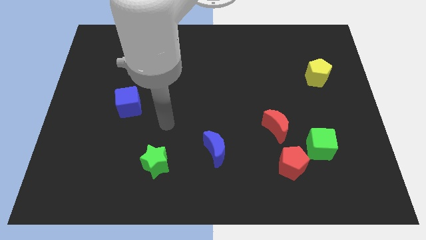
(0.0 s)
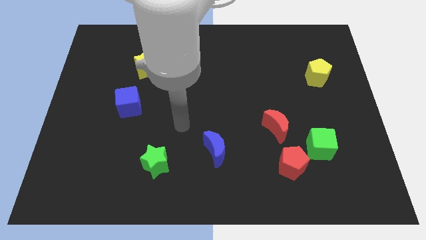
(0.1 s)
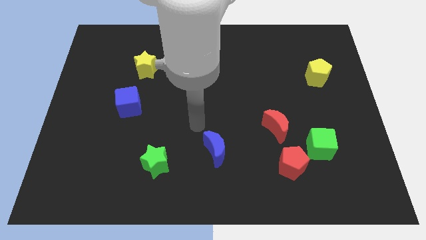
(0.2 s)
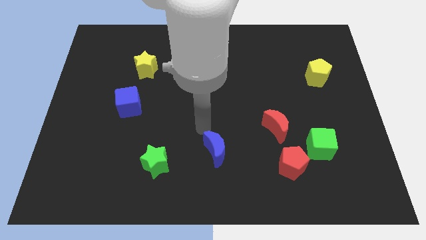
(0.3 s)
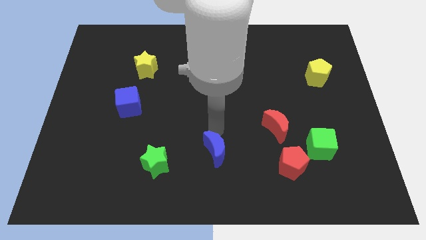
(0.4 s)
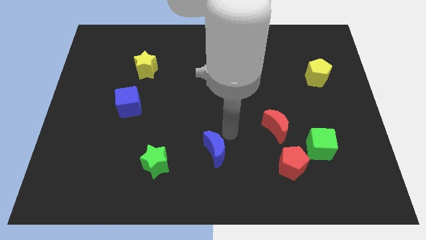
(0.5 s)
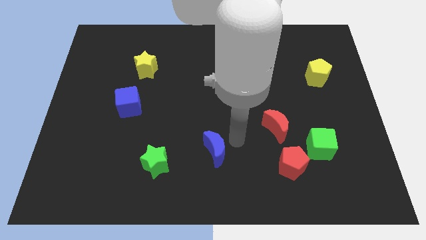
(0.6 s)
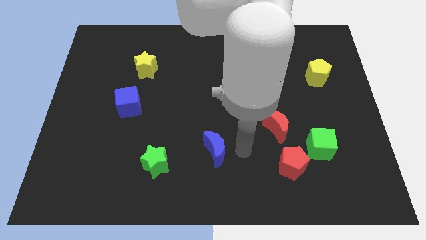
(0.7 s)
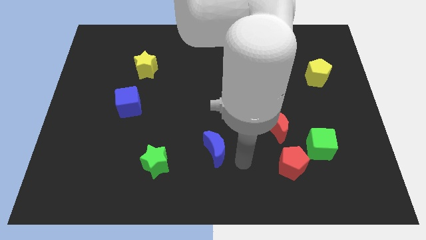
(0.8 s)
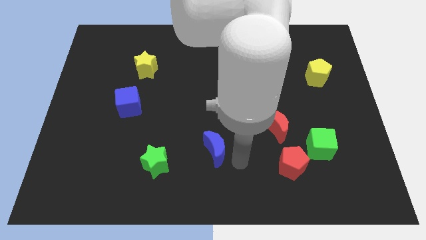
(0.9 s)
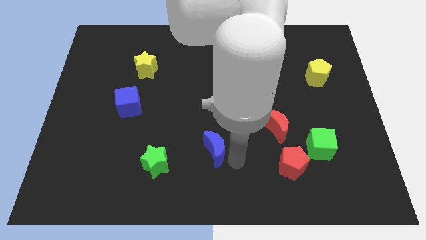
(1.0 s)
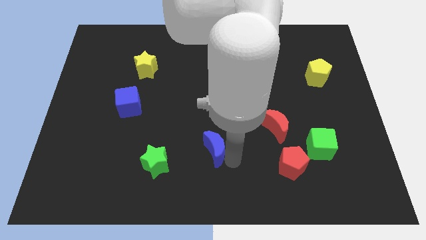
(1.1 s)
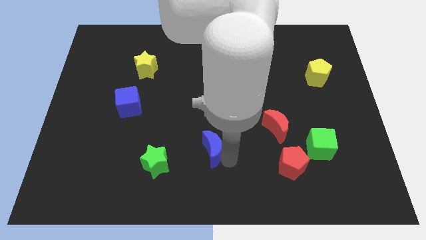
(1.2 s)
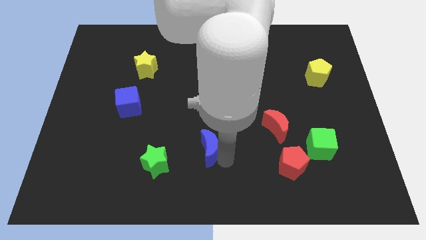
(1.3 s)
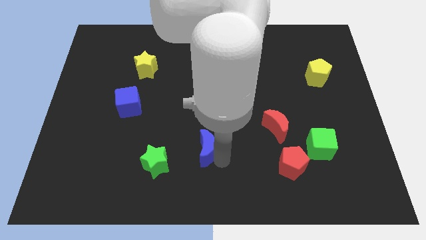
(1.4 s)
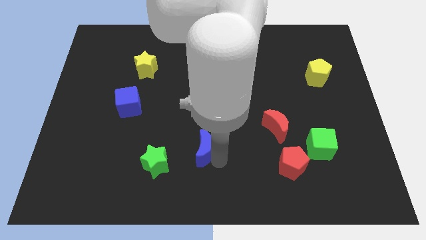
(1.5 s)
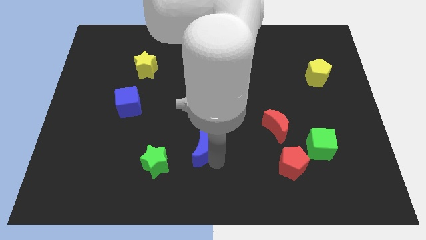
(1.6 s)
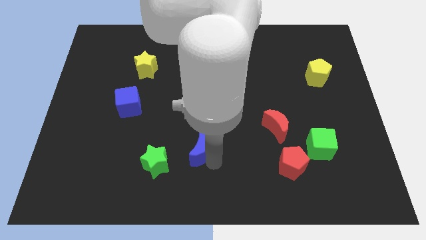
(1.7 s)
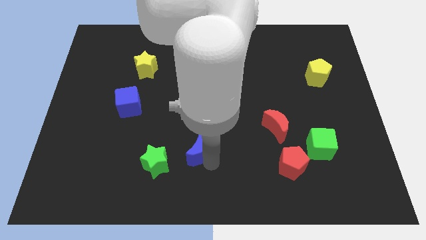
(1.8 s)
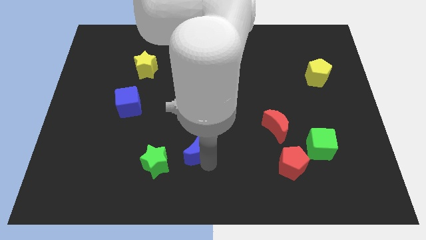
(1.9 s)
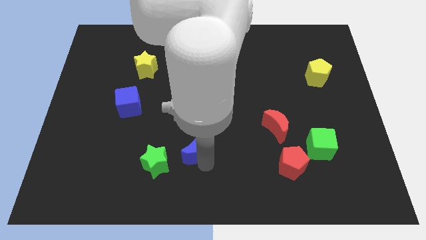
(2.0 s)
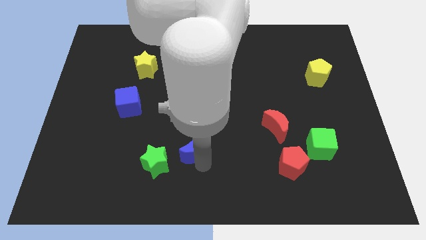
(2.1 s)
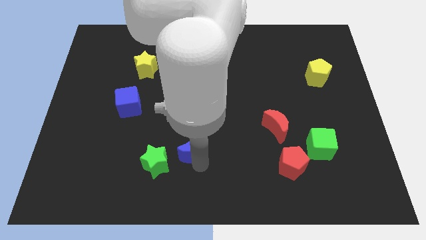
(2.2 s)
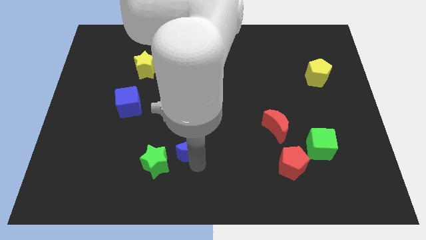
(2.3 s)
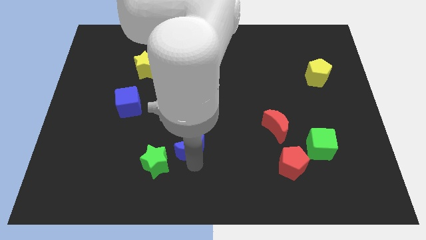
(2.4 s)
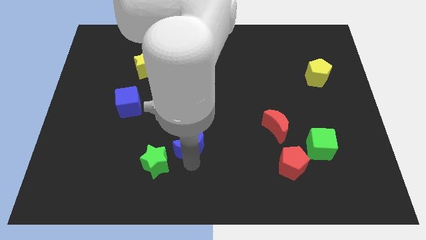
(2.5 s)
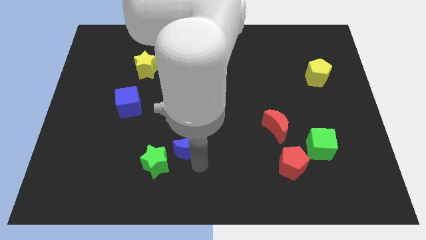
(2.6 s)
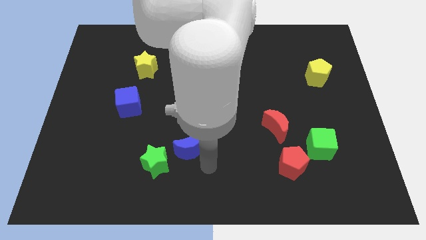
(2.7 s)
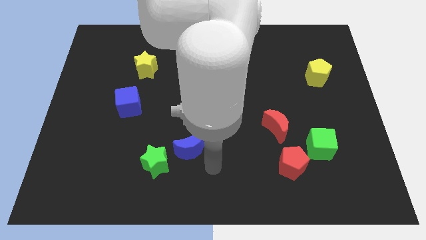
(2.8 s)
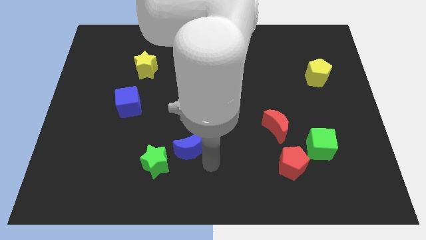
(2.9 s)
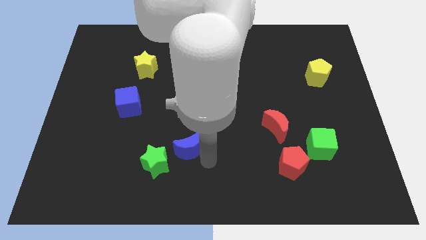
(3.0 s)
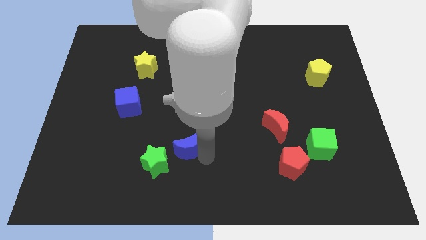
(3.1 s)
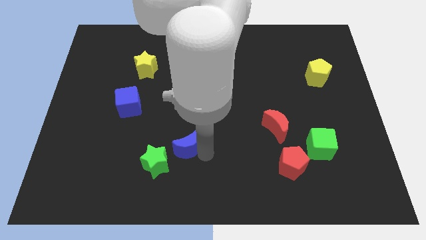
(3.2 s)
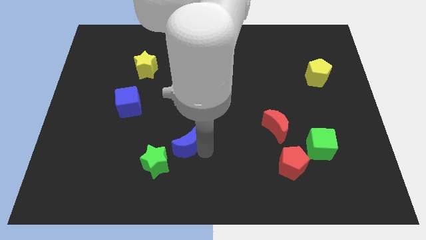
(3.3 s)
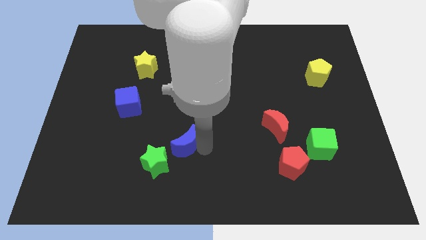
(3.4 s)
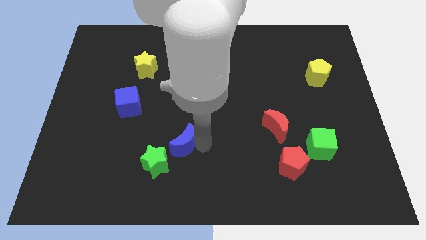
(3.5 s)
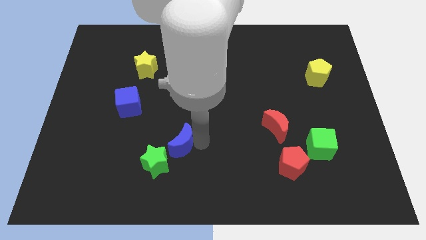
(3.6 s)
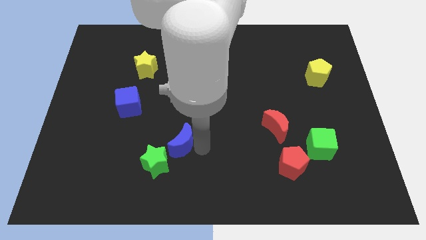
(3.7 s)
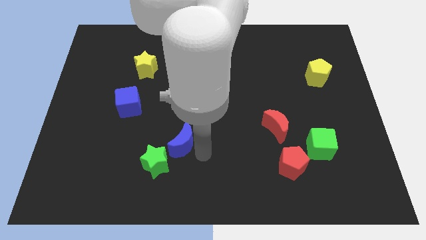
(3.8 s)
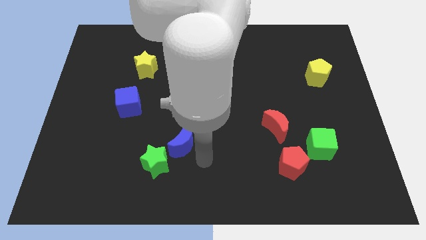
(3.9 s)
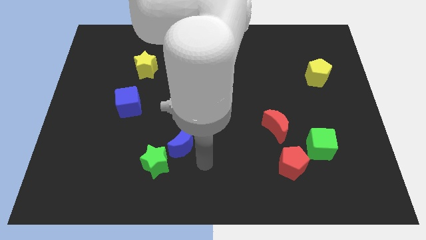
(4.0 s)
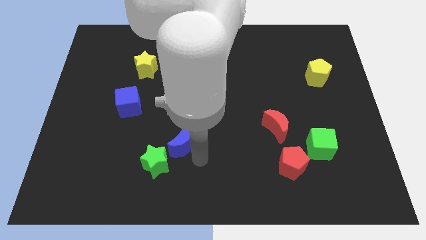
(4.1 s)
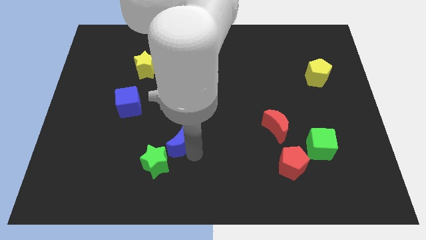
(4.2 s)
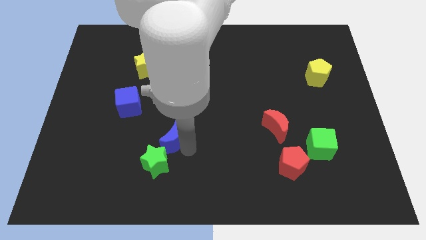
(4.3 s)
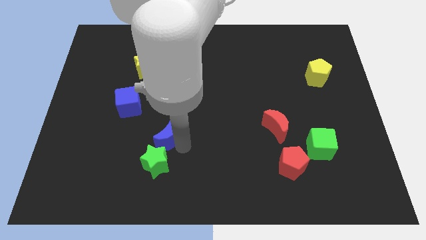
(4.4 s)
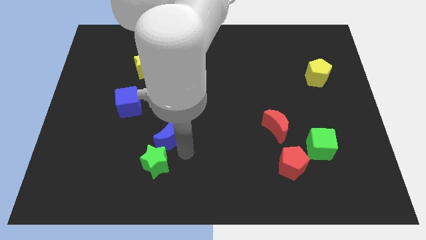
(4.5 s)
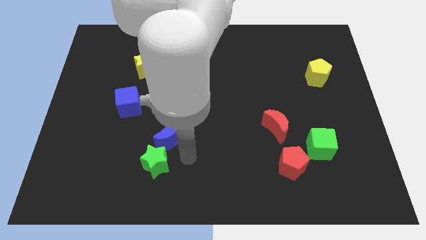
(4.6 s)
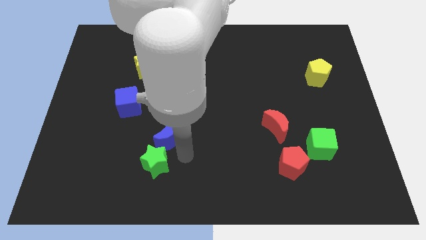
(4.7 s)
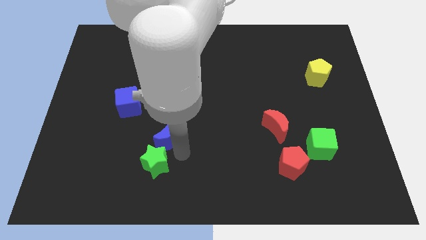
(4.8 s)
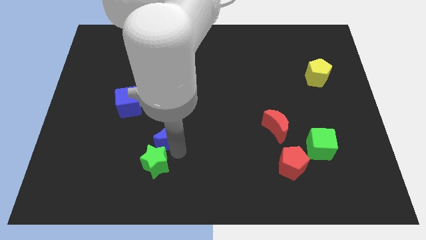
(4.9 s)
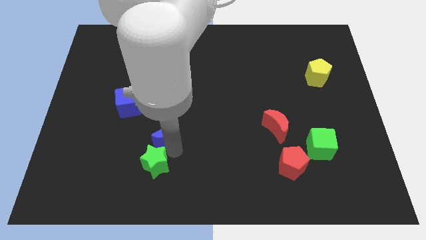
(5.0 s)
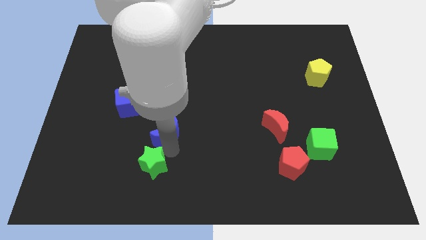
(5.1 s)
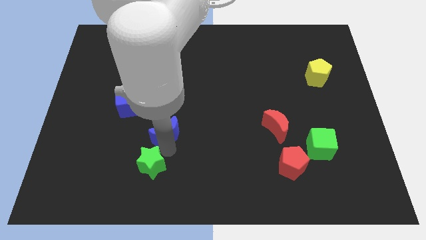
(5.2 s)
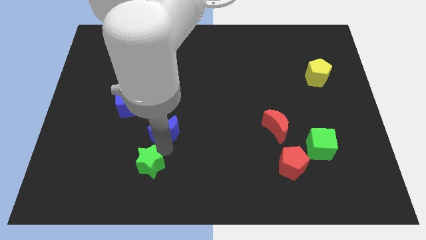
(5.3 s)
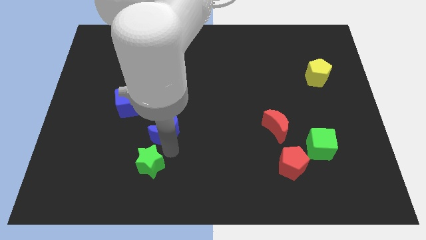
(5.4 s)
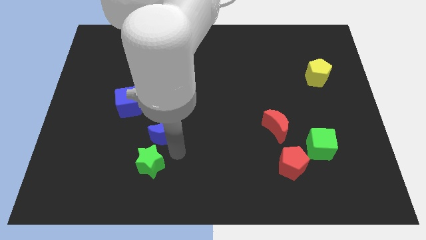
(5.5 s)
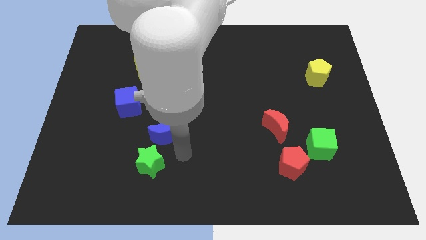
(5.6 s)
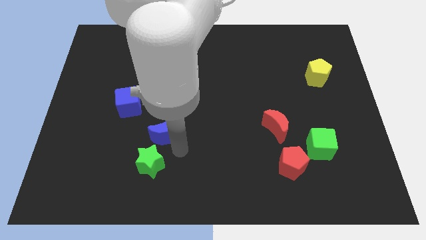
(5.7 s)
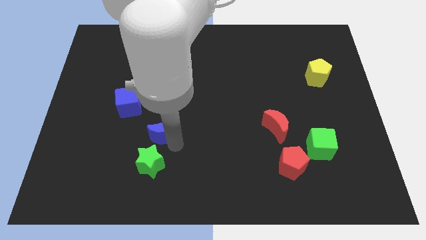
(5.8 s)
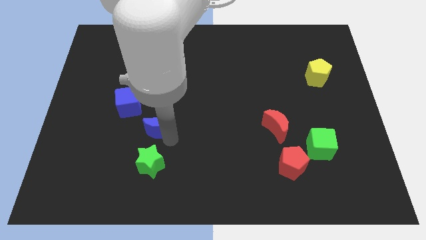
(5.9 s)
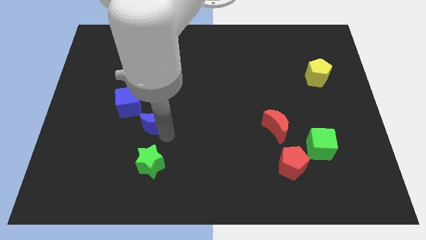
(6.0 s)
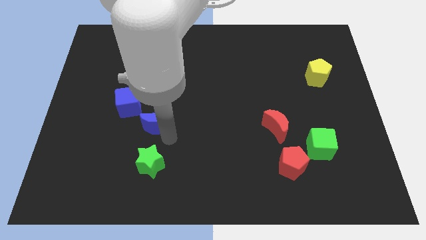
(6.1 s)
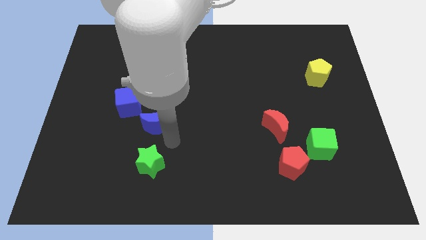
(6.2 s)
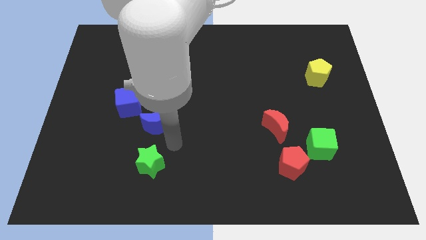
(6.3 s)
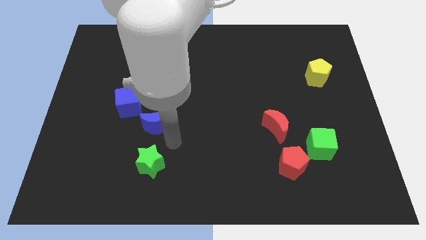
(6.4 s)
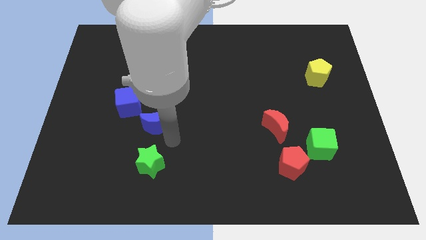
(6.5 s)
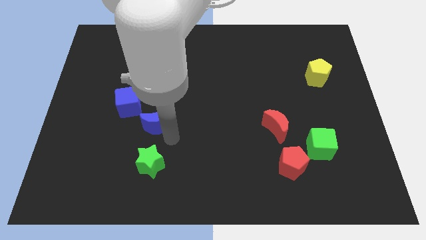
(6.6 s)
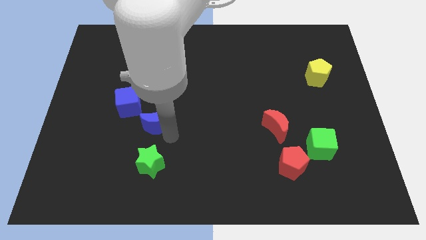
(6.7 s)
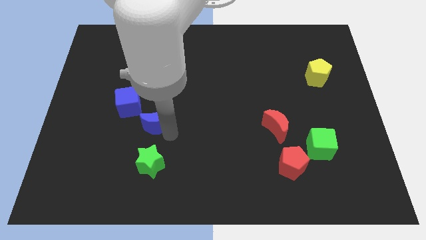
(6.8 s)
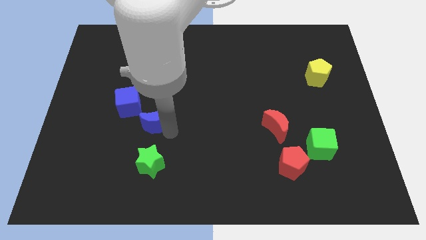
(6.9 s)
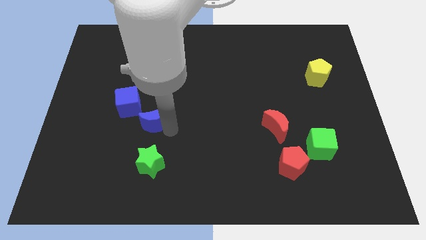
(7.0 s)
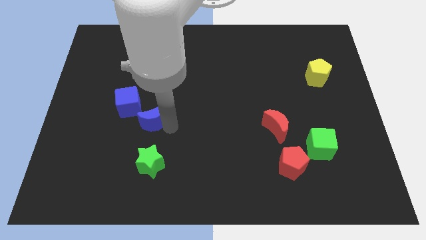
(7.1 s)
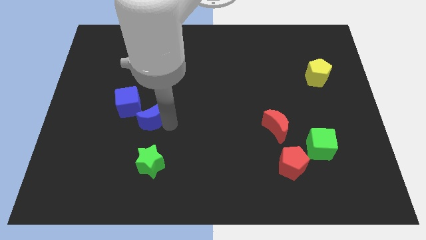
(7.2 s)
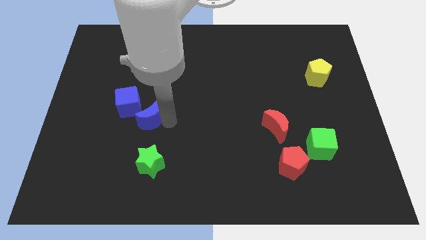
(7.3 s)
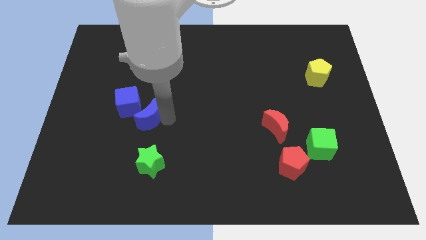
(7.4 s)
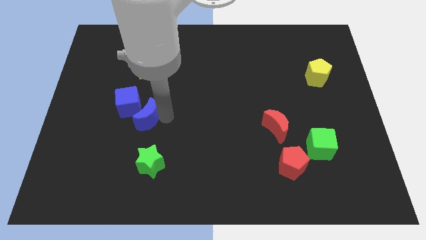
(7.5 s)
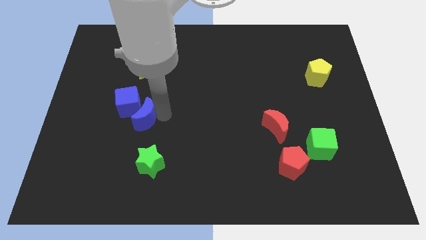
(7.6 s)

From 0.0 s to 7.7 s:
slide the blue moon to the blue cube

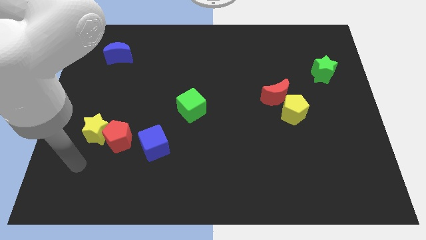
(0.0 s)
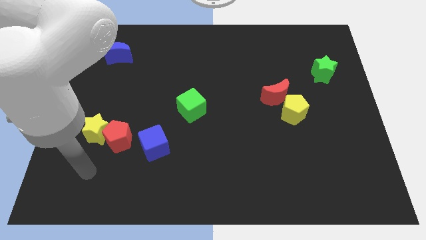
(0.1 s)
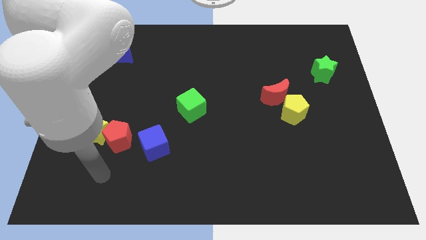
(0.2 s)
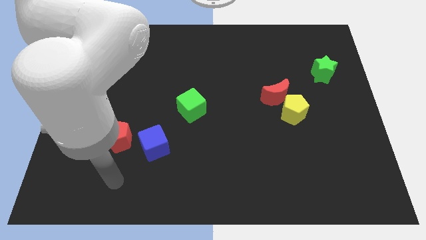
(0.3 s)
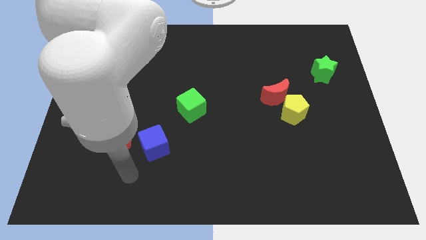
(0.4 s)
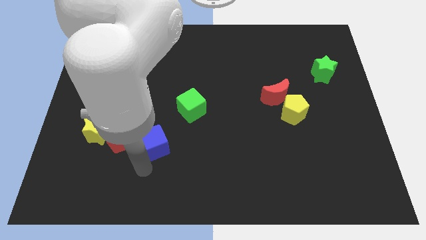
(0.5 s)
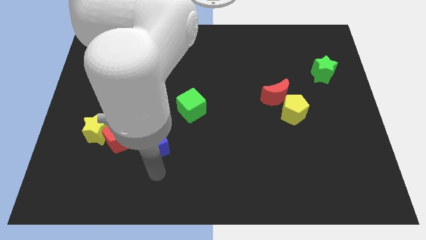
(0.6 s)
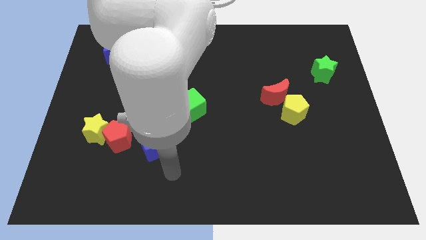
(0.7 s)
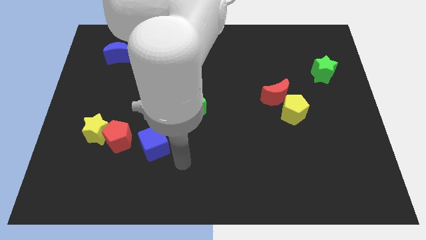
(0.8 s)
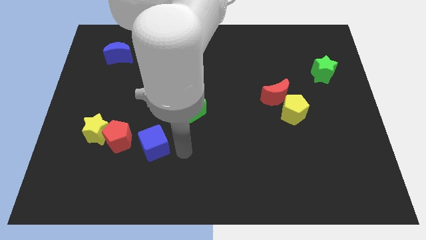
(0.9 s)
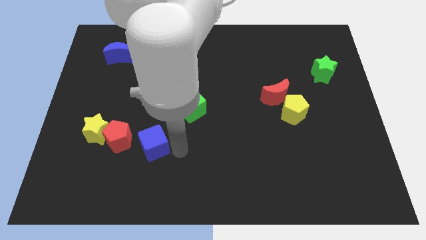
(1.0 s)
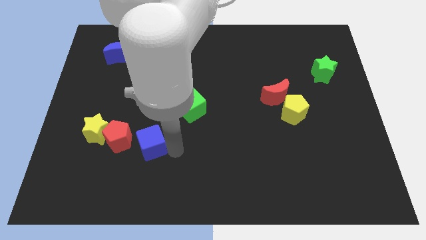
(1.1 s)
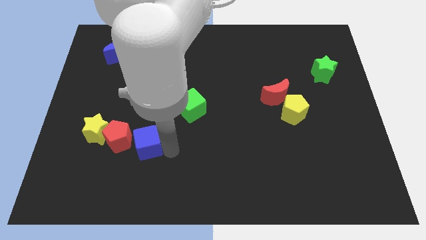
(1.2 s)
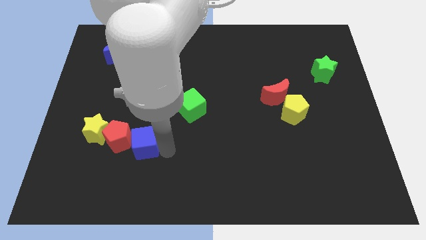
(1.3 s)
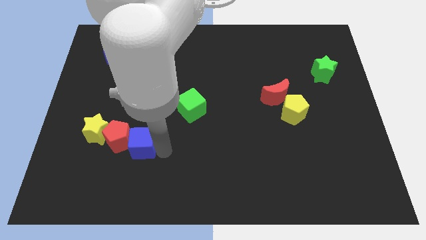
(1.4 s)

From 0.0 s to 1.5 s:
slide the blue cube next to the red pentagon
